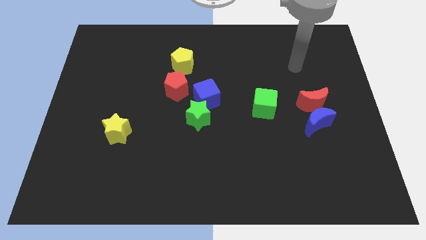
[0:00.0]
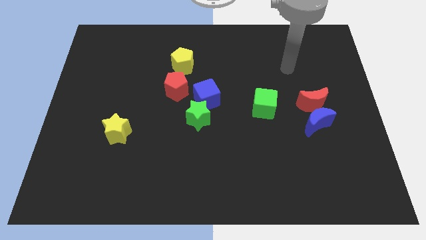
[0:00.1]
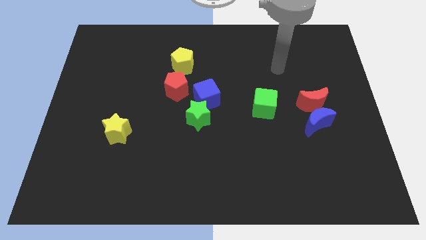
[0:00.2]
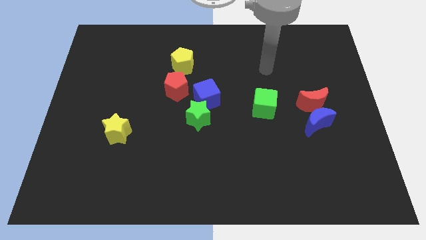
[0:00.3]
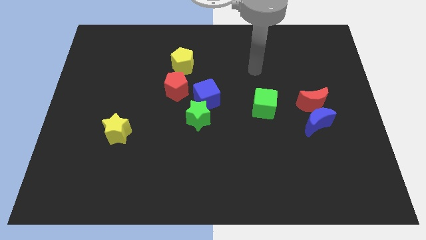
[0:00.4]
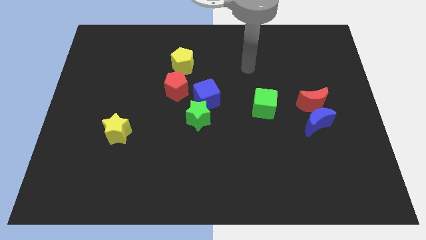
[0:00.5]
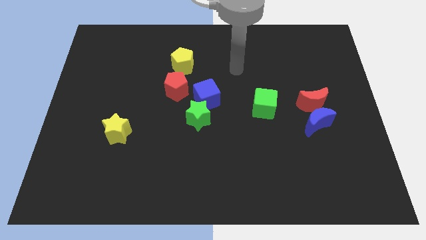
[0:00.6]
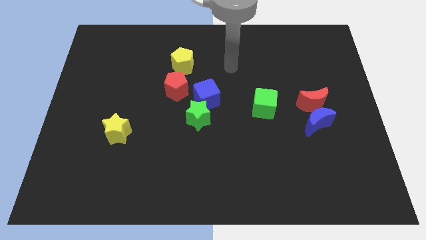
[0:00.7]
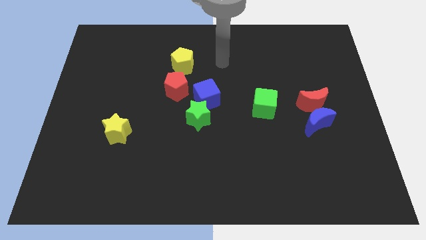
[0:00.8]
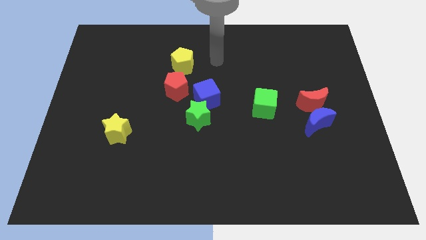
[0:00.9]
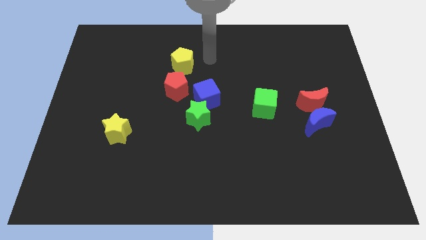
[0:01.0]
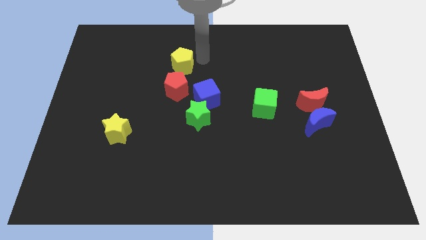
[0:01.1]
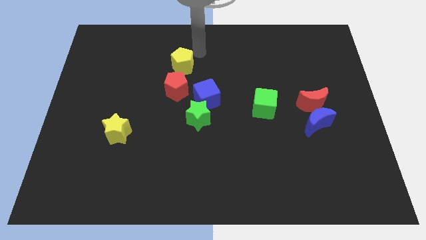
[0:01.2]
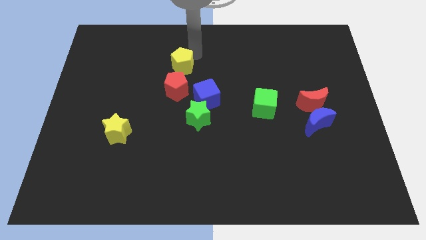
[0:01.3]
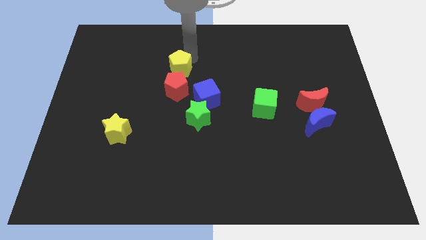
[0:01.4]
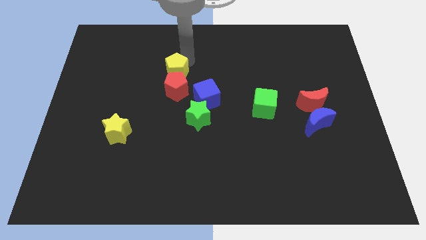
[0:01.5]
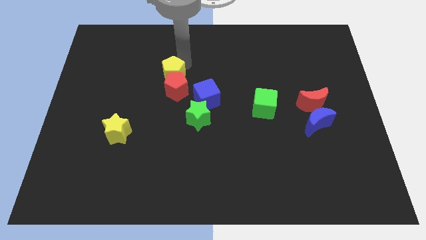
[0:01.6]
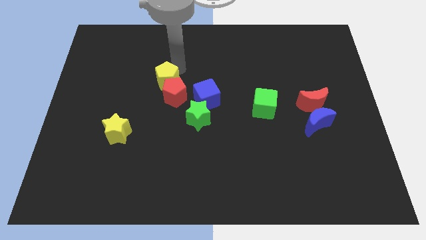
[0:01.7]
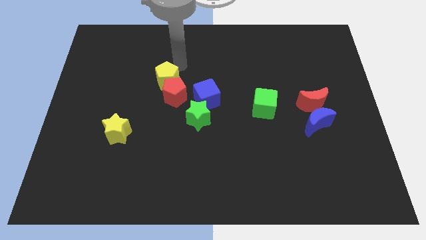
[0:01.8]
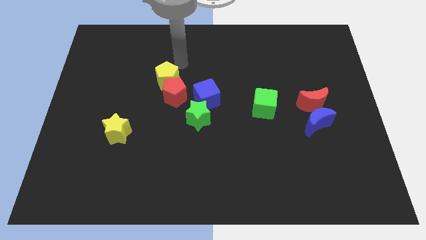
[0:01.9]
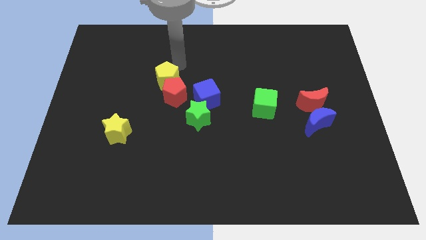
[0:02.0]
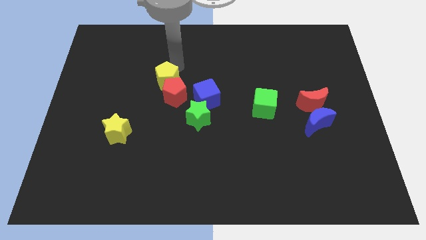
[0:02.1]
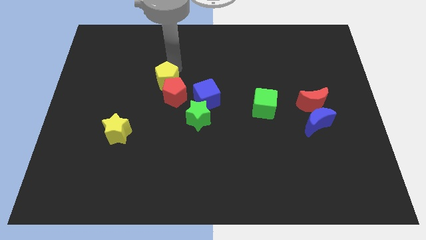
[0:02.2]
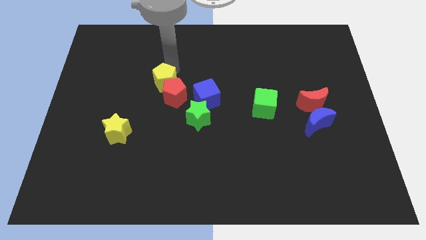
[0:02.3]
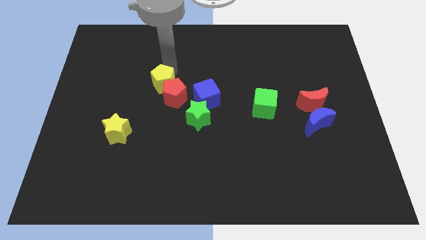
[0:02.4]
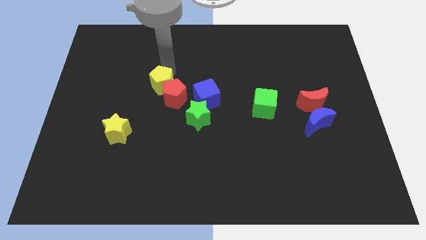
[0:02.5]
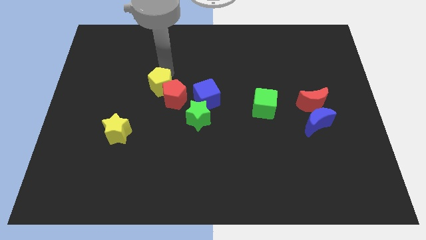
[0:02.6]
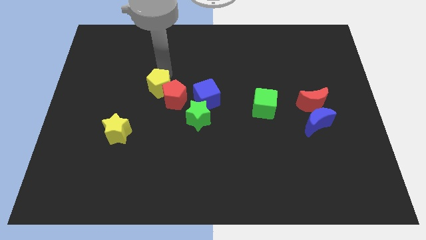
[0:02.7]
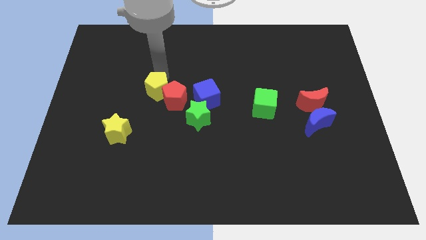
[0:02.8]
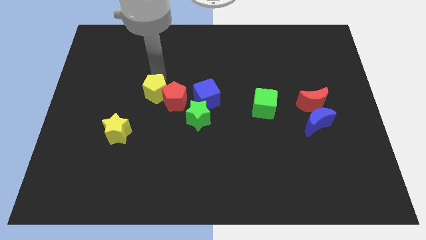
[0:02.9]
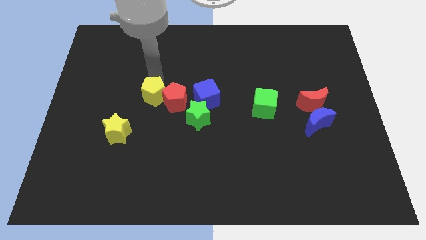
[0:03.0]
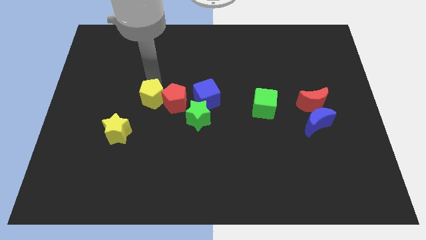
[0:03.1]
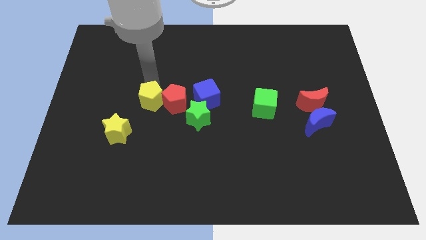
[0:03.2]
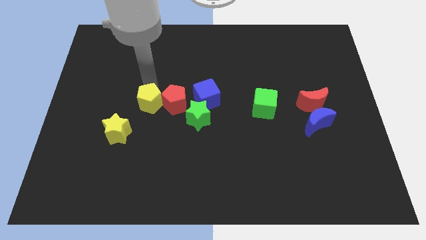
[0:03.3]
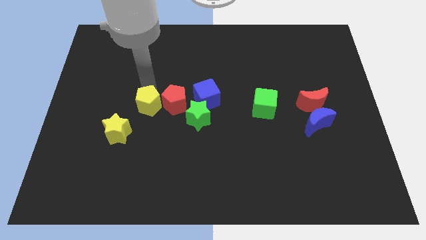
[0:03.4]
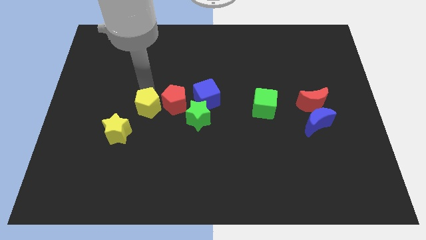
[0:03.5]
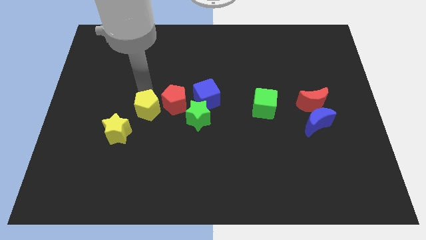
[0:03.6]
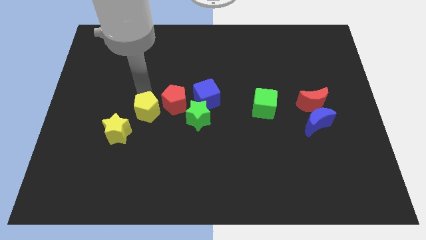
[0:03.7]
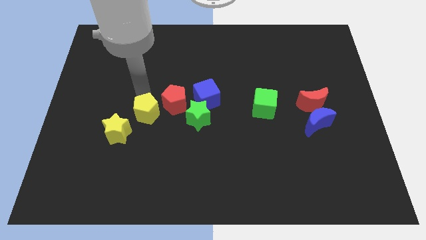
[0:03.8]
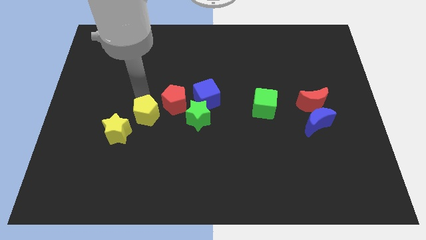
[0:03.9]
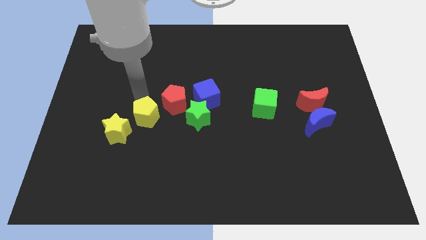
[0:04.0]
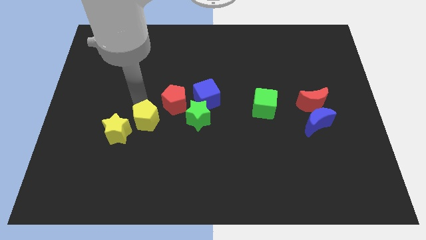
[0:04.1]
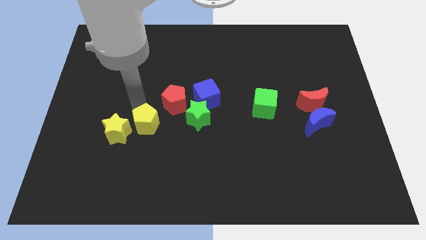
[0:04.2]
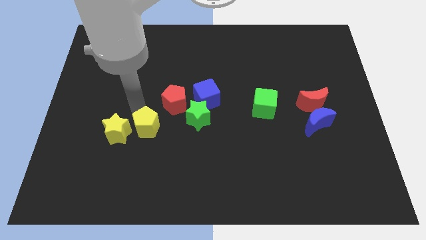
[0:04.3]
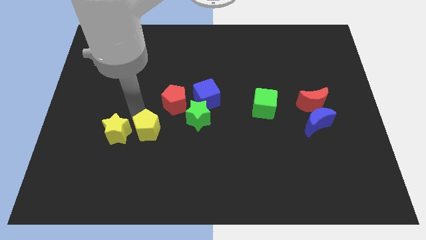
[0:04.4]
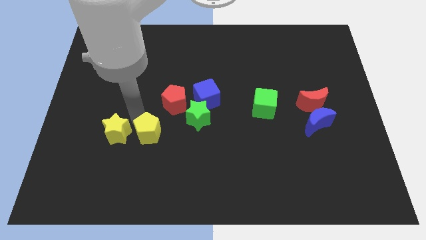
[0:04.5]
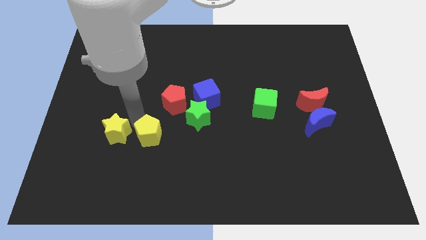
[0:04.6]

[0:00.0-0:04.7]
move the yellow pentagon downwards

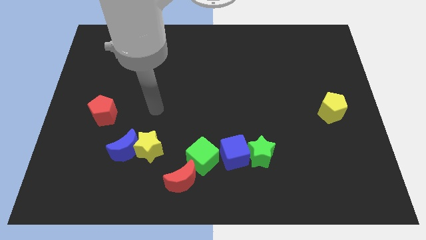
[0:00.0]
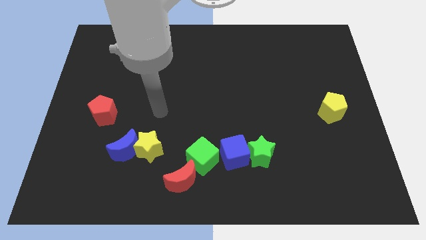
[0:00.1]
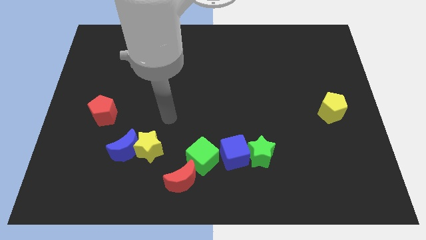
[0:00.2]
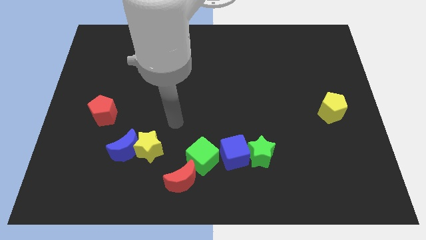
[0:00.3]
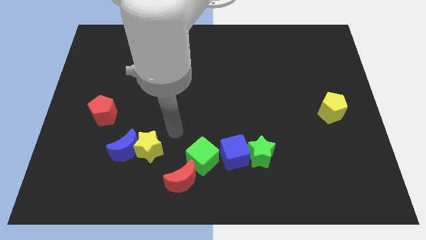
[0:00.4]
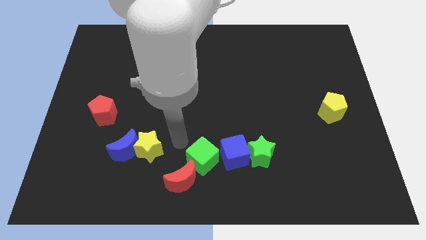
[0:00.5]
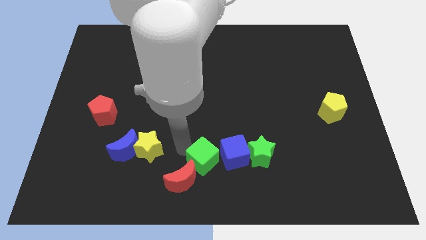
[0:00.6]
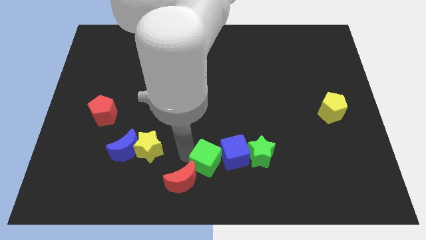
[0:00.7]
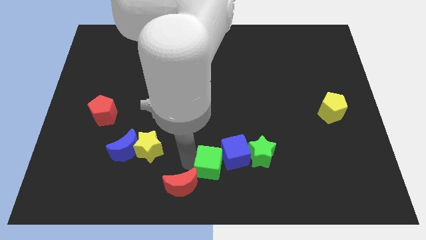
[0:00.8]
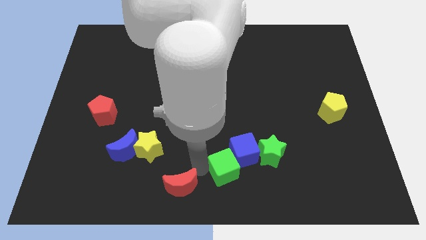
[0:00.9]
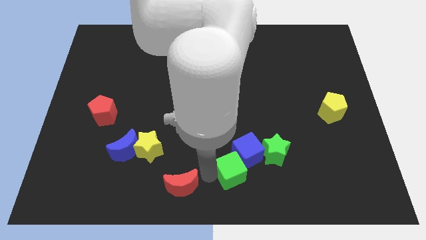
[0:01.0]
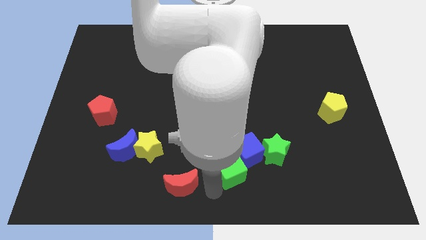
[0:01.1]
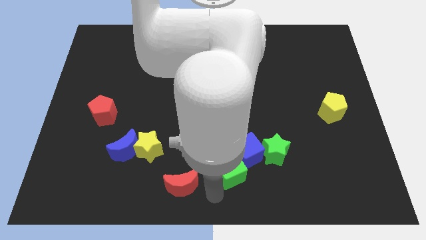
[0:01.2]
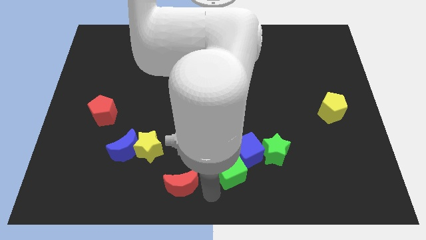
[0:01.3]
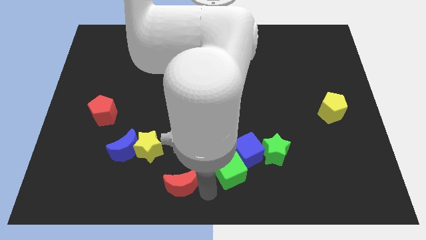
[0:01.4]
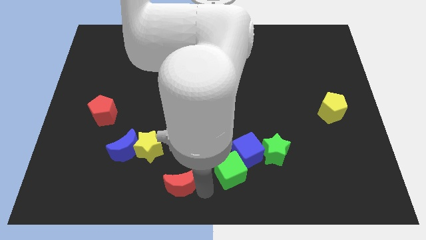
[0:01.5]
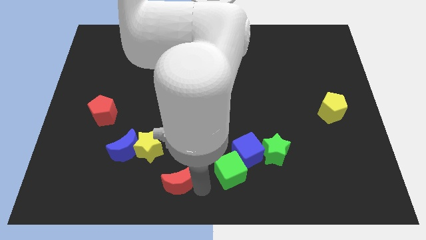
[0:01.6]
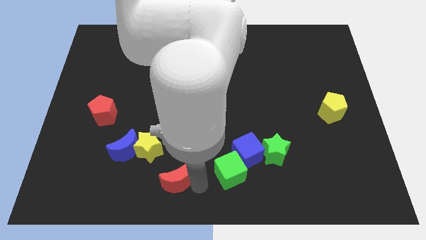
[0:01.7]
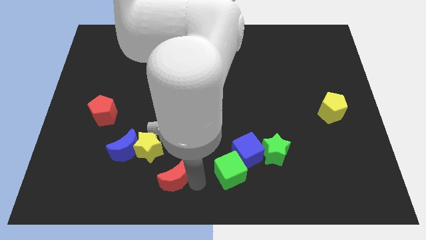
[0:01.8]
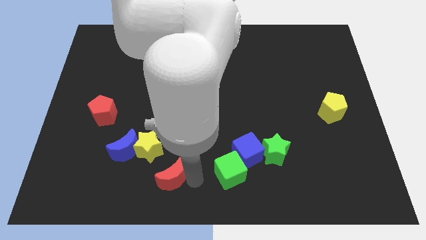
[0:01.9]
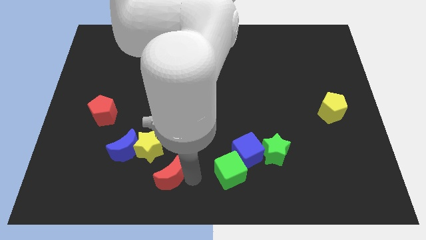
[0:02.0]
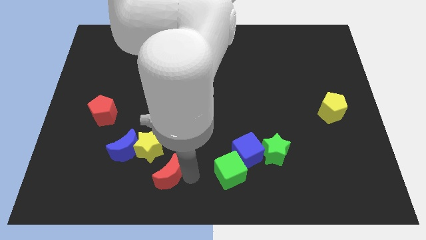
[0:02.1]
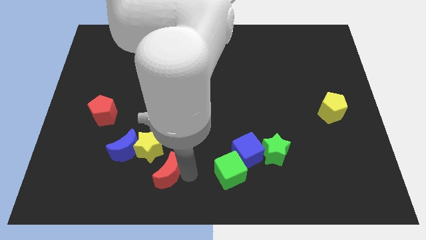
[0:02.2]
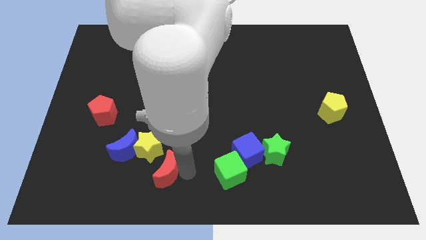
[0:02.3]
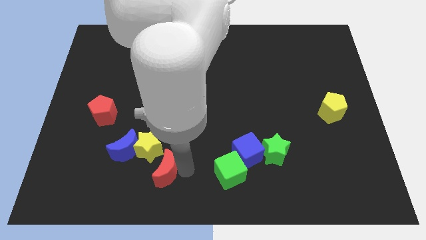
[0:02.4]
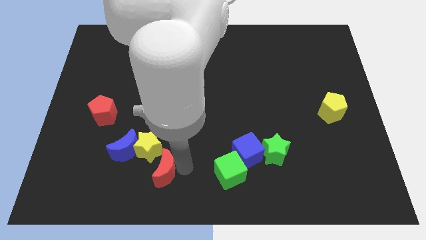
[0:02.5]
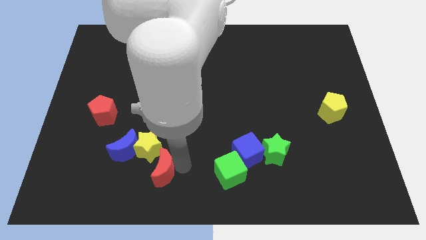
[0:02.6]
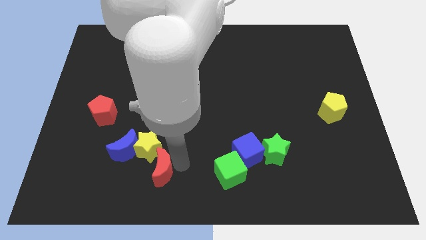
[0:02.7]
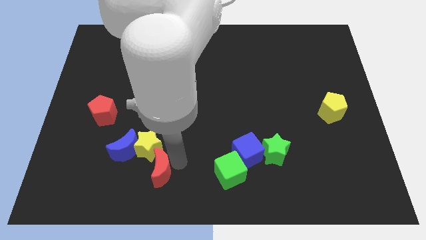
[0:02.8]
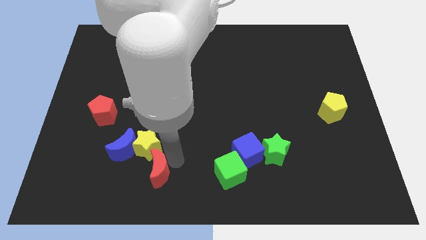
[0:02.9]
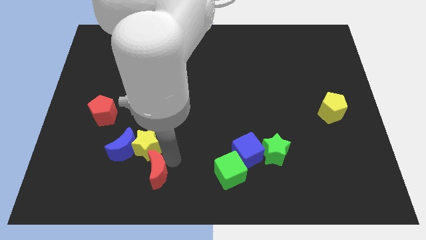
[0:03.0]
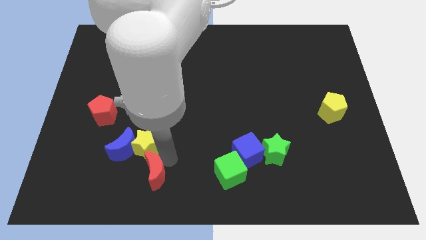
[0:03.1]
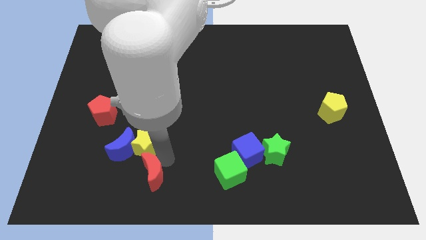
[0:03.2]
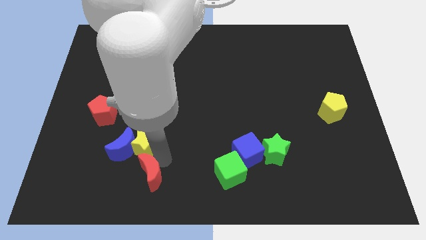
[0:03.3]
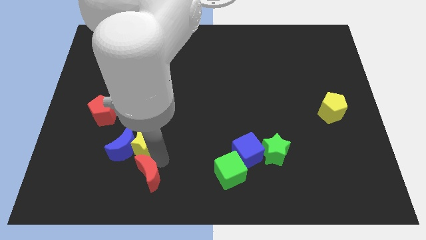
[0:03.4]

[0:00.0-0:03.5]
slightly move the red moon to the left
